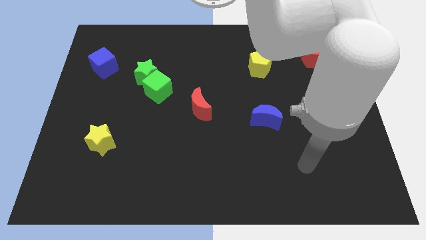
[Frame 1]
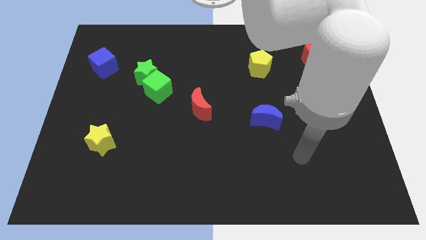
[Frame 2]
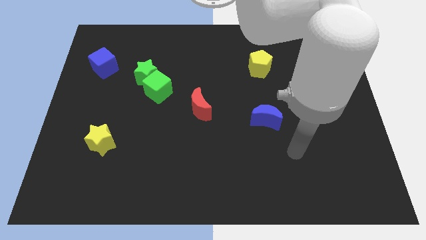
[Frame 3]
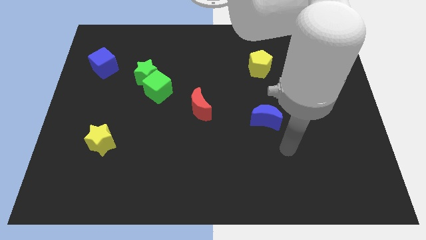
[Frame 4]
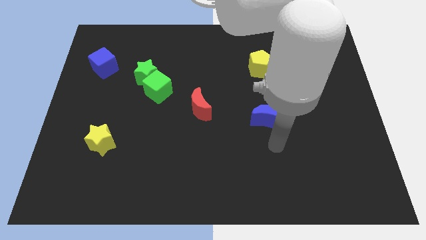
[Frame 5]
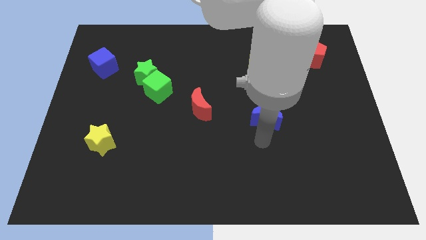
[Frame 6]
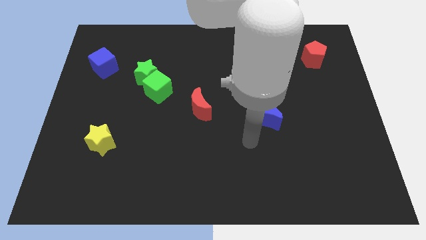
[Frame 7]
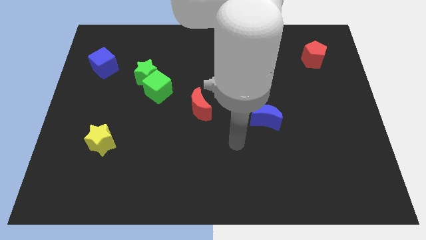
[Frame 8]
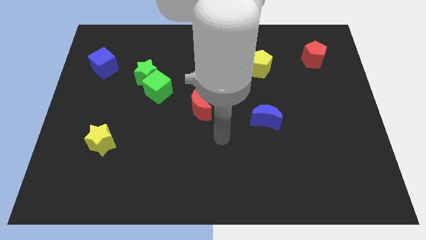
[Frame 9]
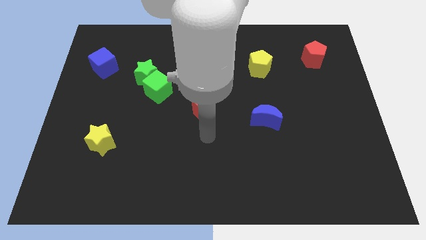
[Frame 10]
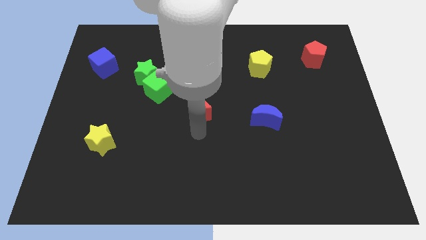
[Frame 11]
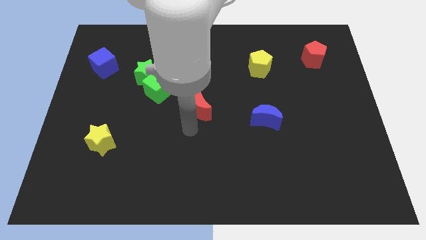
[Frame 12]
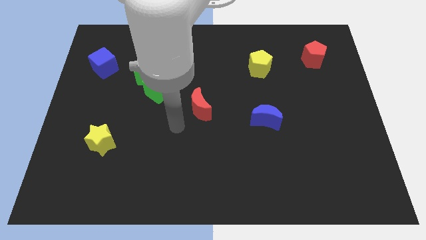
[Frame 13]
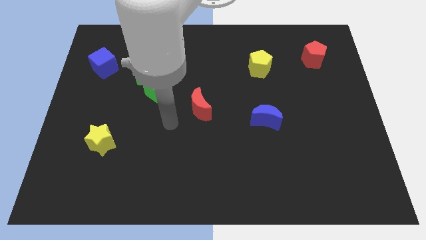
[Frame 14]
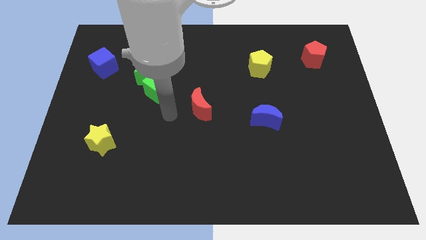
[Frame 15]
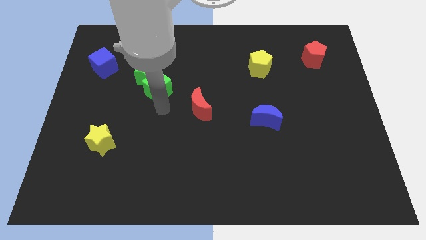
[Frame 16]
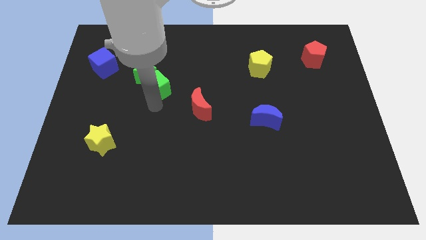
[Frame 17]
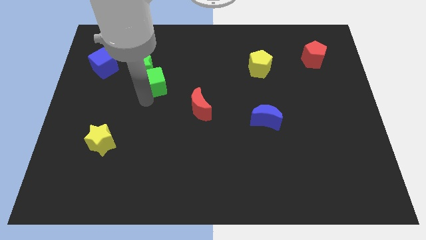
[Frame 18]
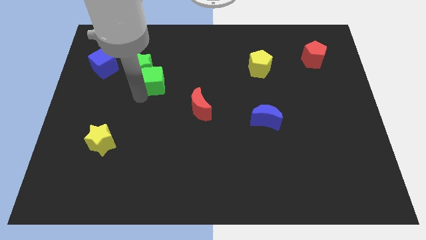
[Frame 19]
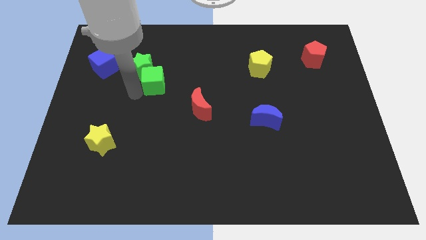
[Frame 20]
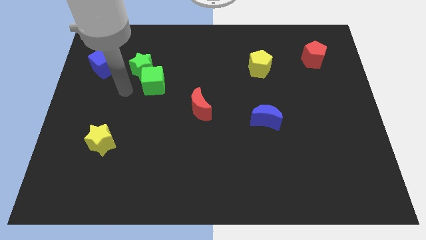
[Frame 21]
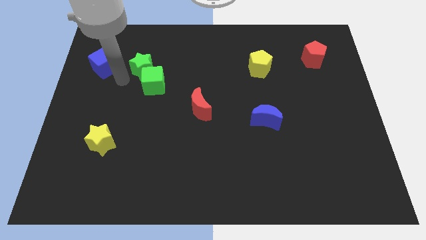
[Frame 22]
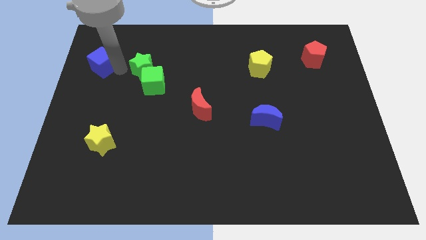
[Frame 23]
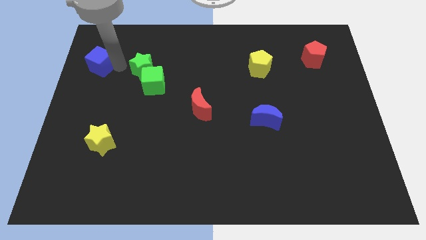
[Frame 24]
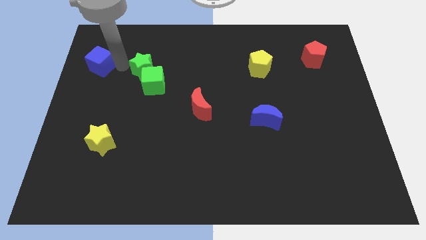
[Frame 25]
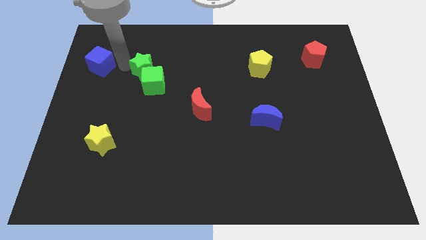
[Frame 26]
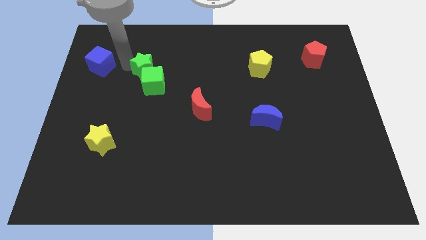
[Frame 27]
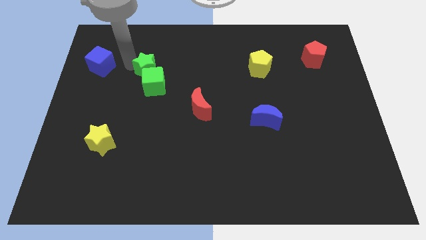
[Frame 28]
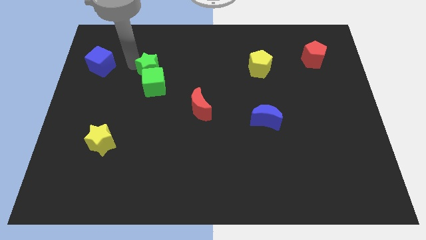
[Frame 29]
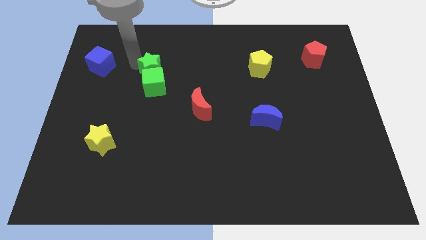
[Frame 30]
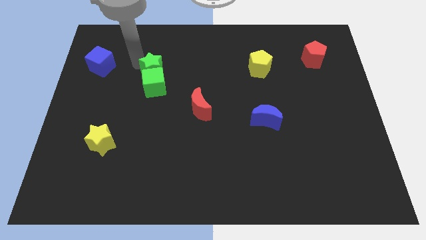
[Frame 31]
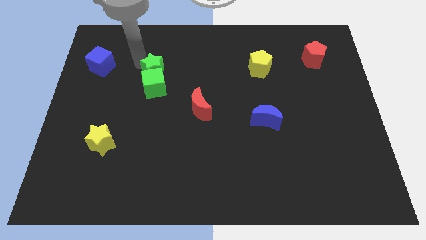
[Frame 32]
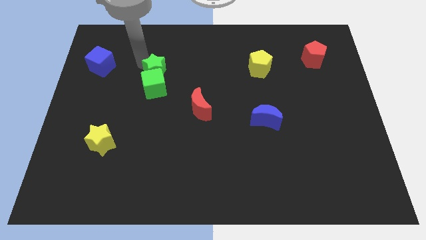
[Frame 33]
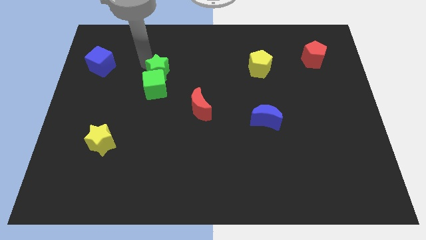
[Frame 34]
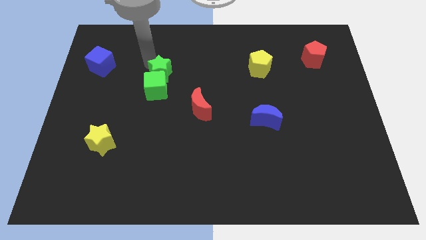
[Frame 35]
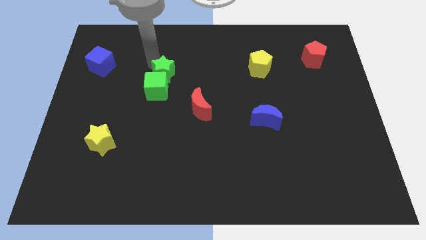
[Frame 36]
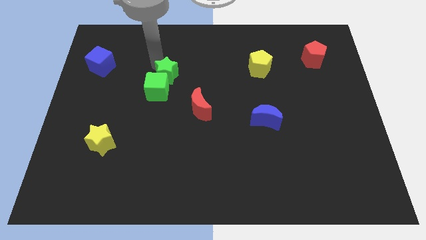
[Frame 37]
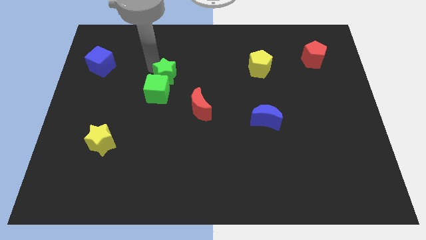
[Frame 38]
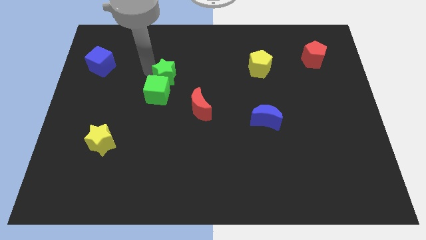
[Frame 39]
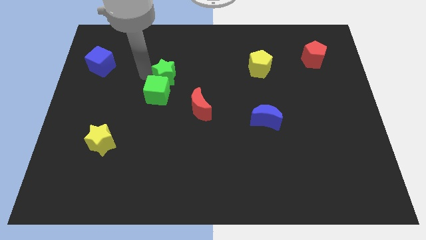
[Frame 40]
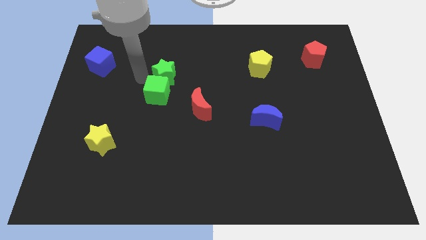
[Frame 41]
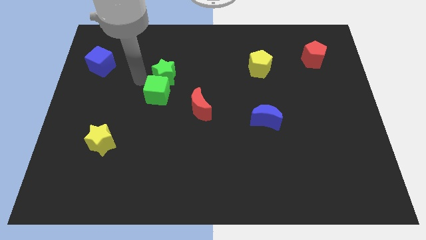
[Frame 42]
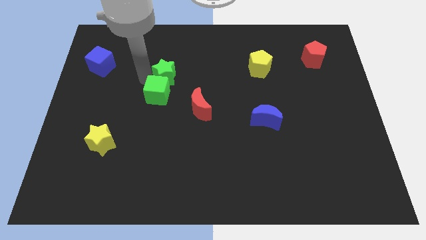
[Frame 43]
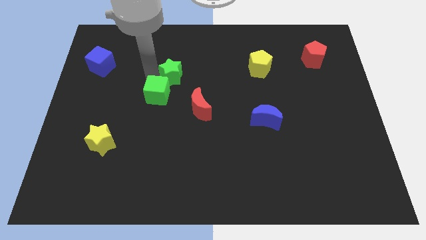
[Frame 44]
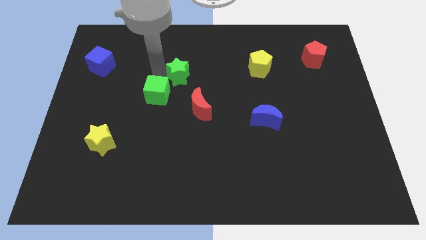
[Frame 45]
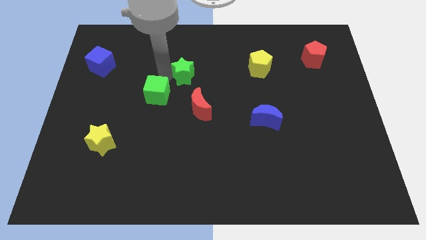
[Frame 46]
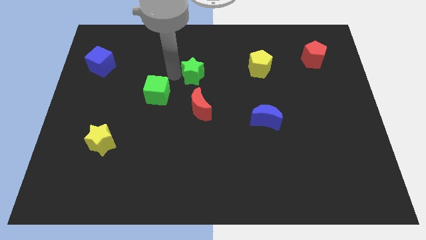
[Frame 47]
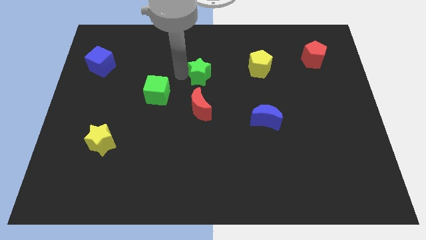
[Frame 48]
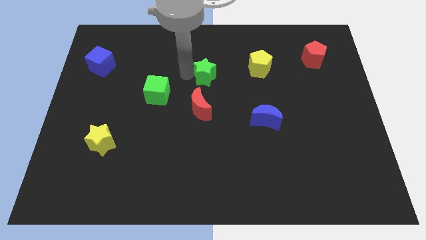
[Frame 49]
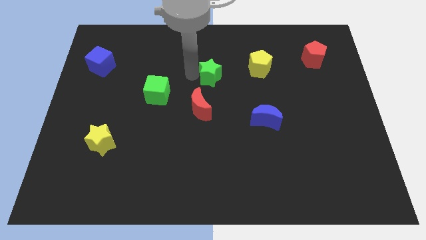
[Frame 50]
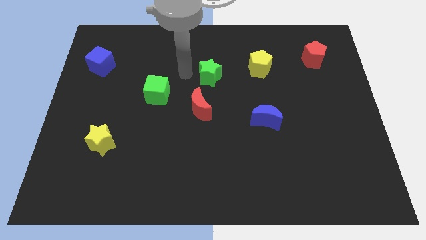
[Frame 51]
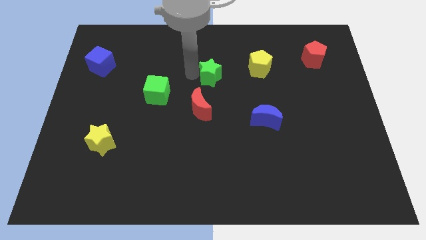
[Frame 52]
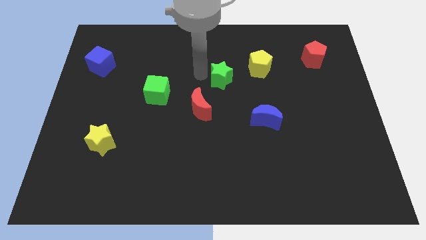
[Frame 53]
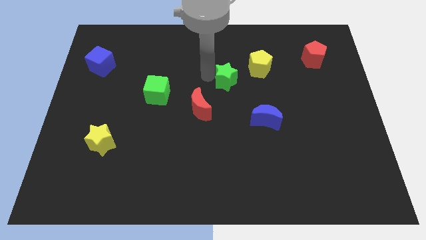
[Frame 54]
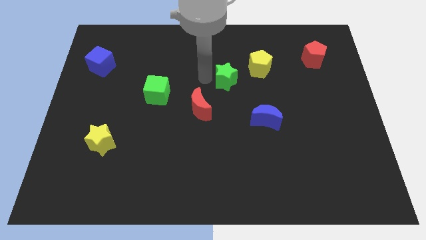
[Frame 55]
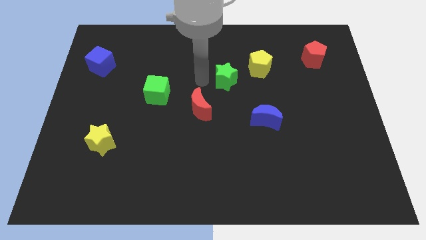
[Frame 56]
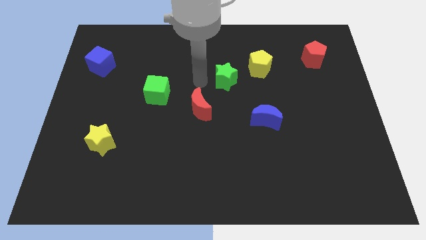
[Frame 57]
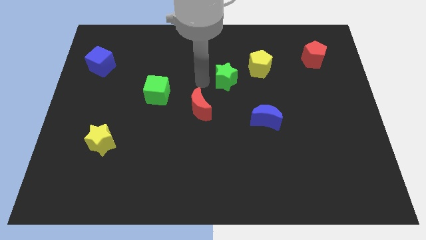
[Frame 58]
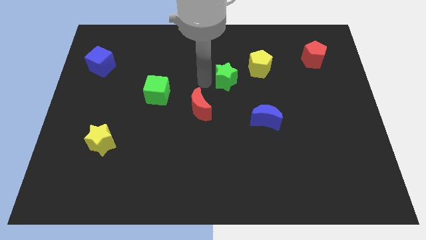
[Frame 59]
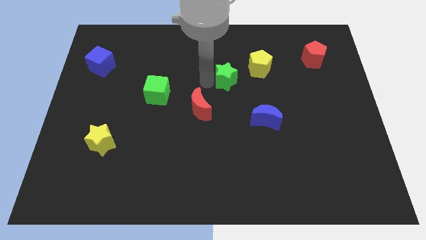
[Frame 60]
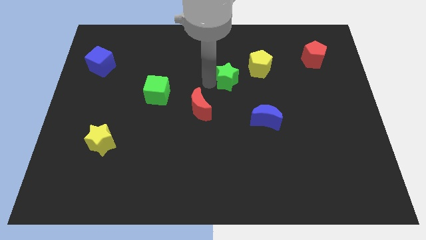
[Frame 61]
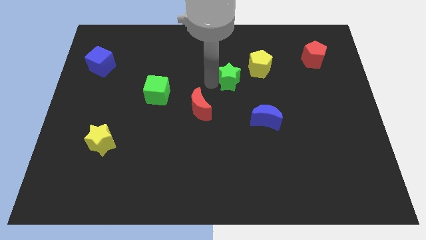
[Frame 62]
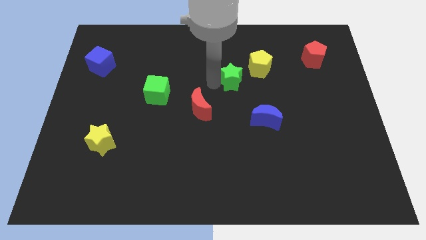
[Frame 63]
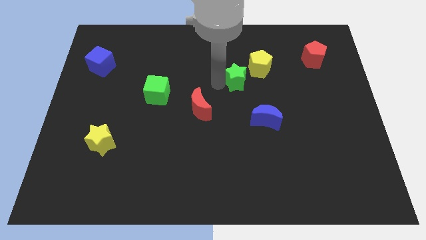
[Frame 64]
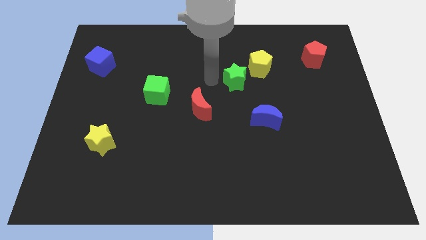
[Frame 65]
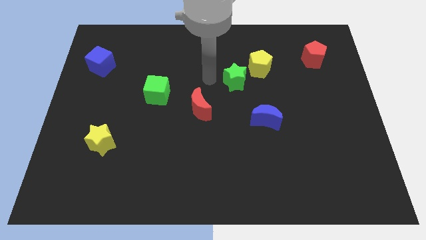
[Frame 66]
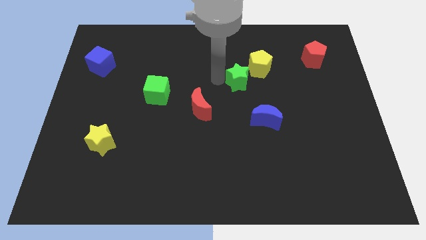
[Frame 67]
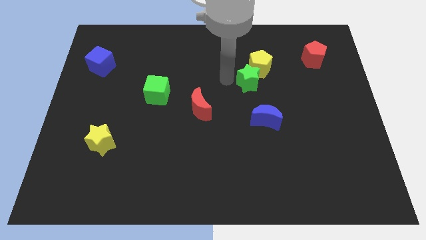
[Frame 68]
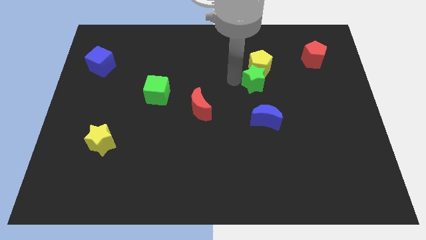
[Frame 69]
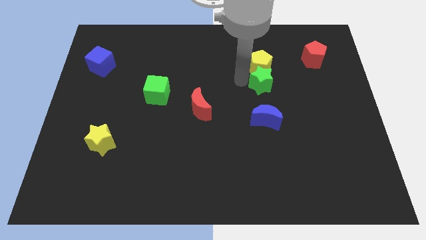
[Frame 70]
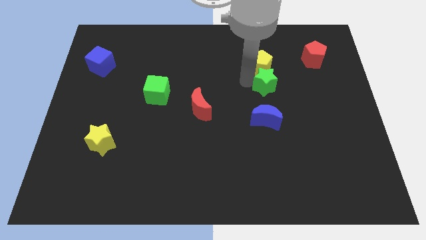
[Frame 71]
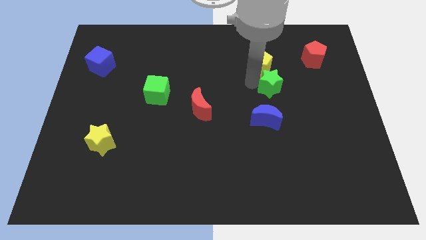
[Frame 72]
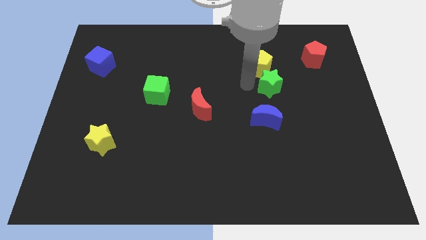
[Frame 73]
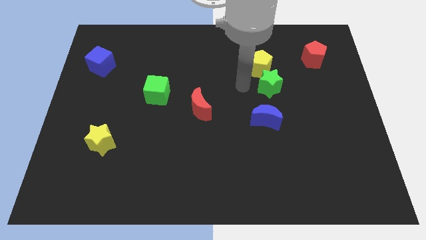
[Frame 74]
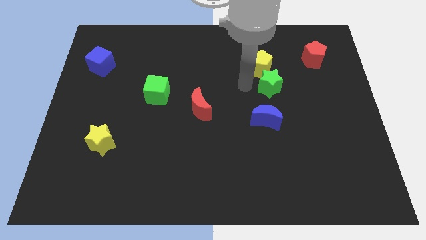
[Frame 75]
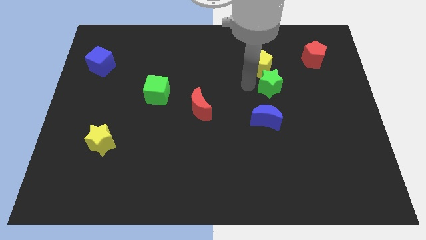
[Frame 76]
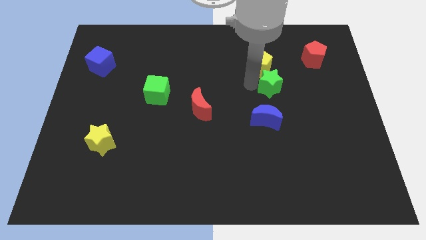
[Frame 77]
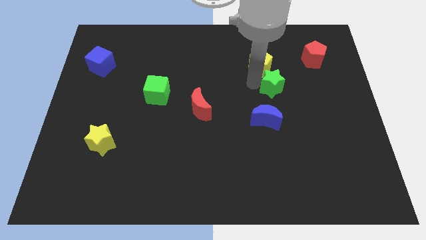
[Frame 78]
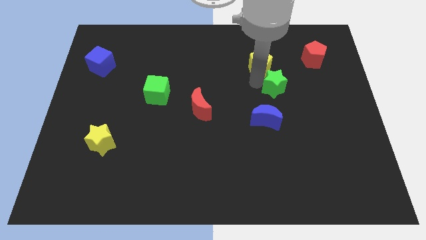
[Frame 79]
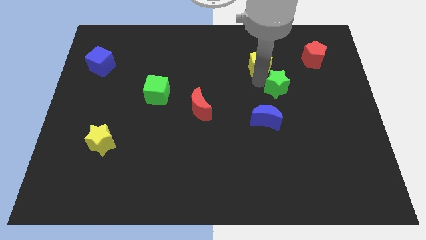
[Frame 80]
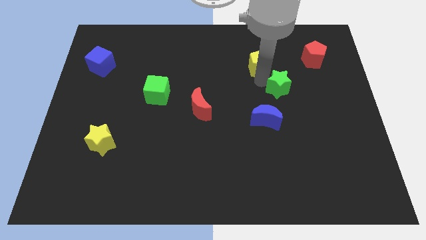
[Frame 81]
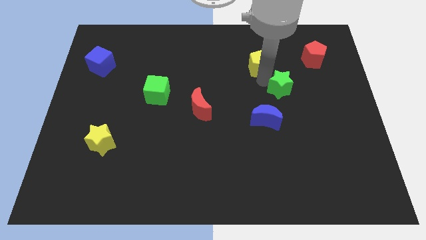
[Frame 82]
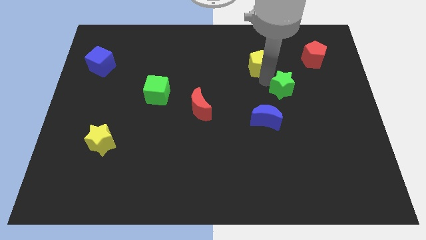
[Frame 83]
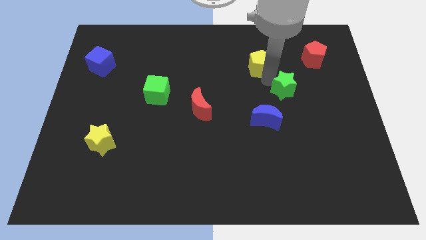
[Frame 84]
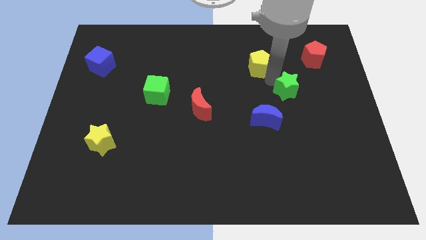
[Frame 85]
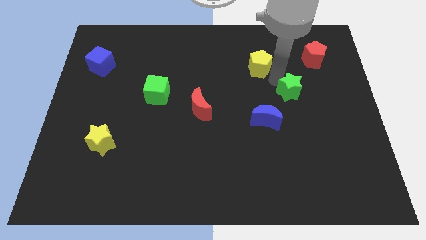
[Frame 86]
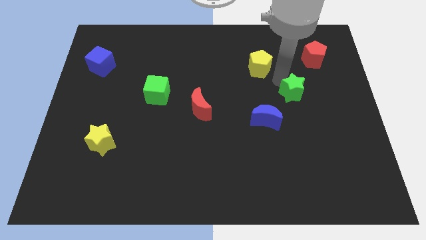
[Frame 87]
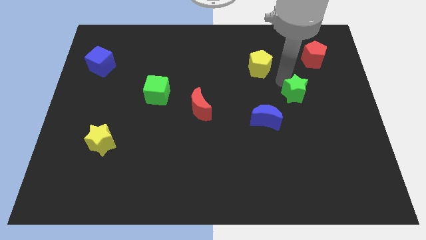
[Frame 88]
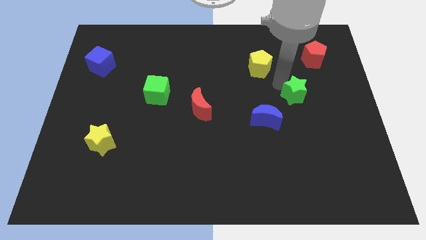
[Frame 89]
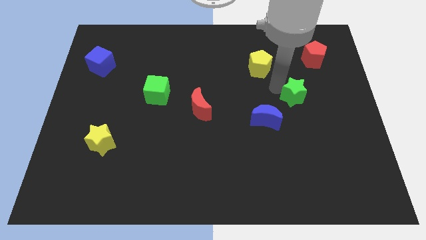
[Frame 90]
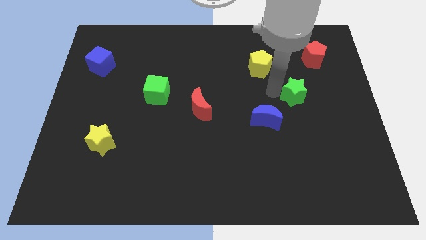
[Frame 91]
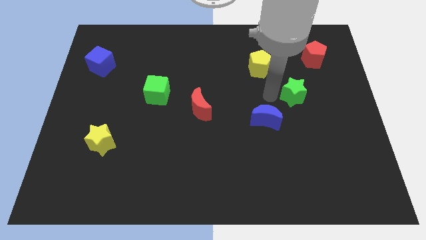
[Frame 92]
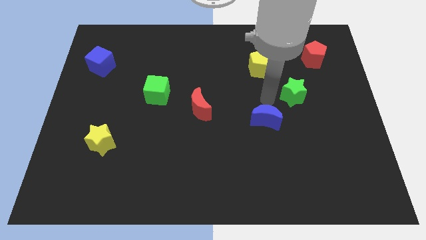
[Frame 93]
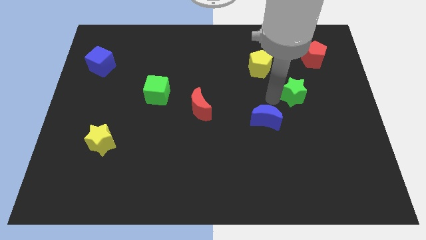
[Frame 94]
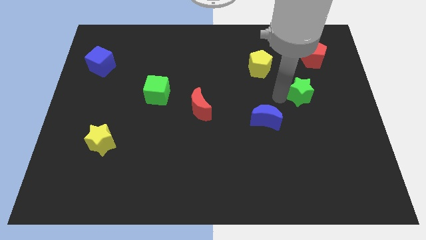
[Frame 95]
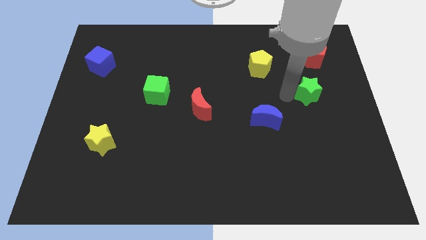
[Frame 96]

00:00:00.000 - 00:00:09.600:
push the green star to the bottom of the red pentagon
